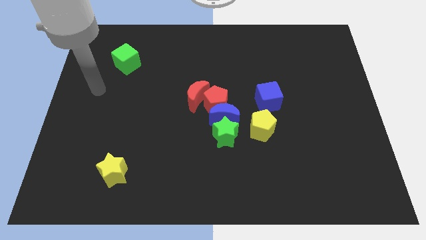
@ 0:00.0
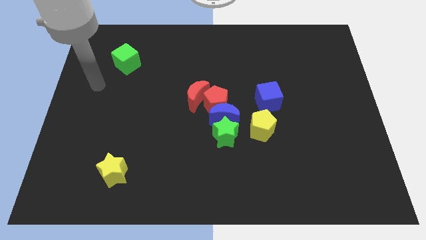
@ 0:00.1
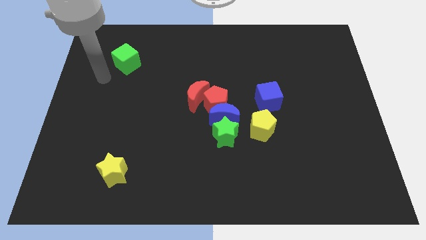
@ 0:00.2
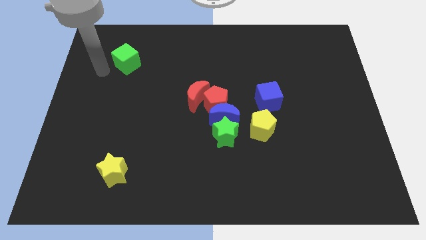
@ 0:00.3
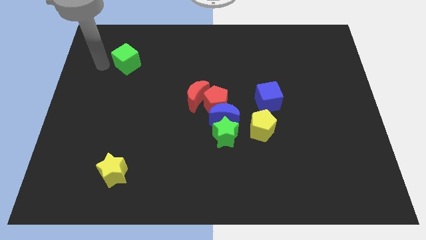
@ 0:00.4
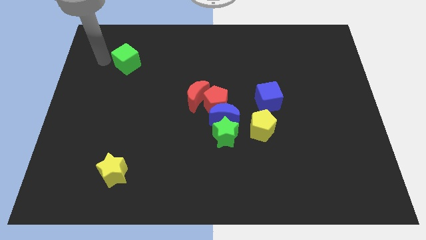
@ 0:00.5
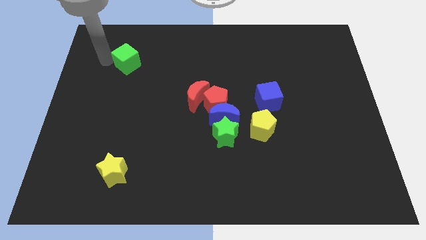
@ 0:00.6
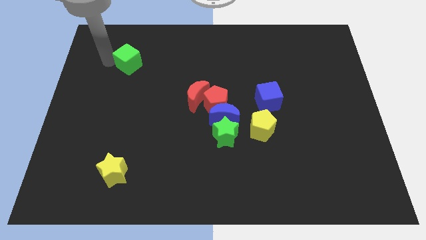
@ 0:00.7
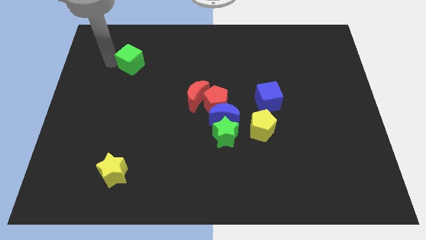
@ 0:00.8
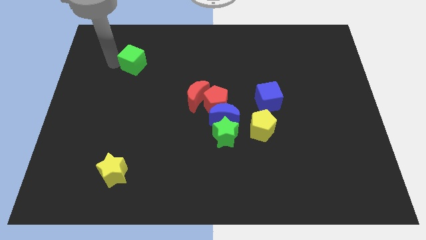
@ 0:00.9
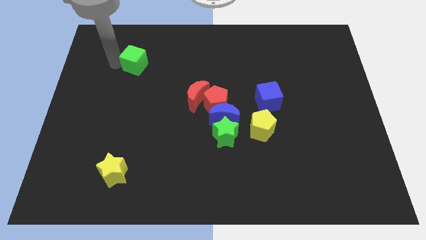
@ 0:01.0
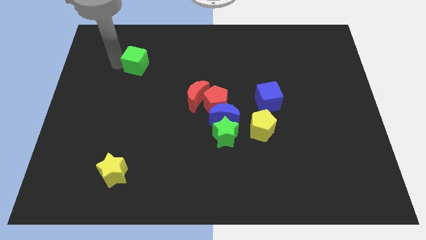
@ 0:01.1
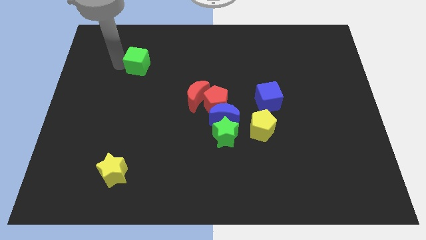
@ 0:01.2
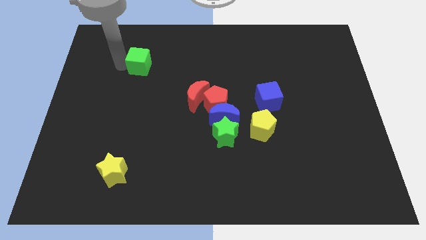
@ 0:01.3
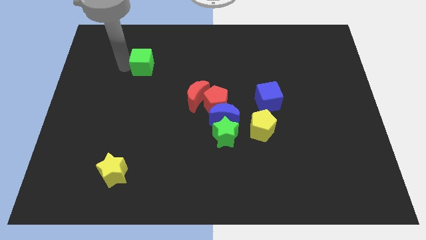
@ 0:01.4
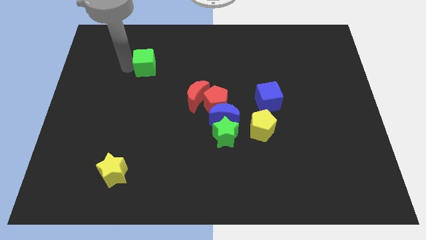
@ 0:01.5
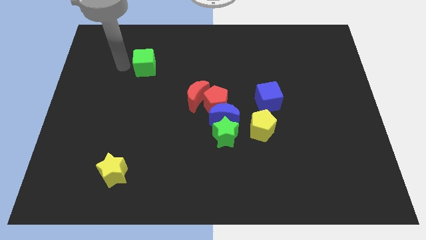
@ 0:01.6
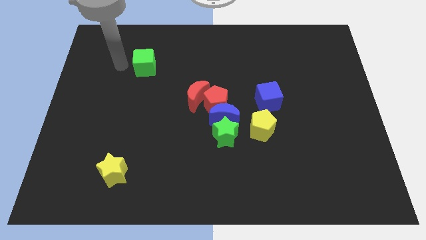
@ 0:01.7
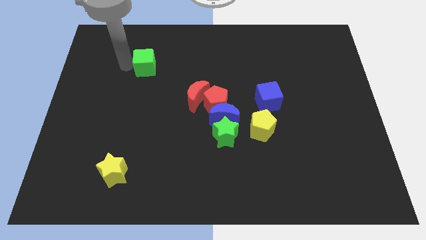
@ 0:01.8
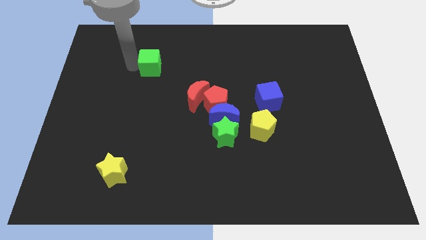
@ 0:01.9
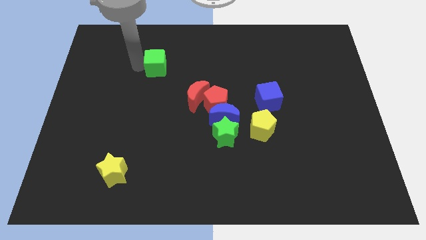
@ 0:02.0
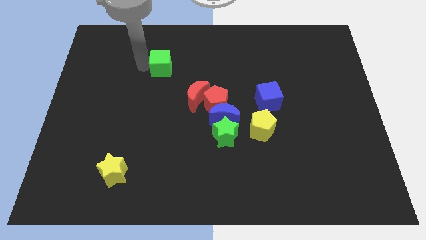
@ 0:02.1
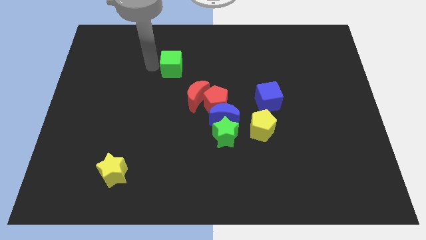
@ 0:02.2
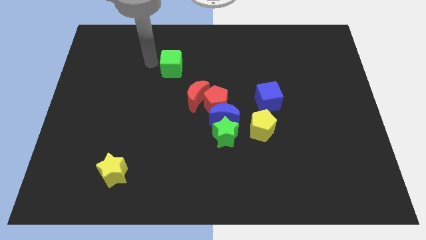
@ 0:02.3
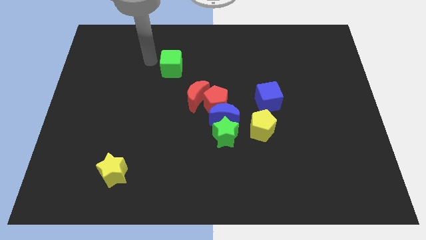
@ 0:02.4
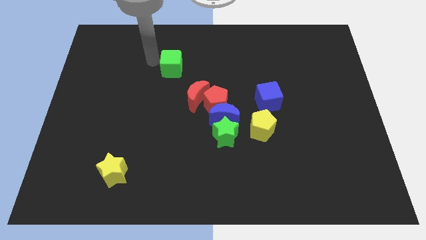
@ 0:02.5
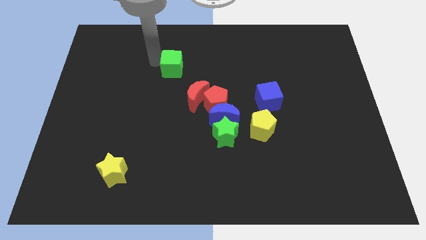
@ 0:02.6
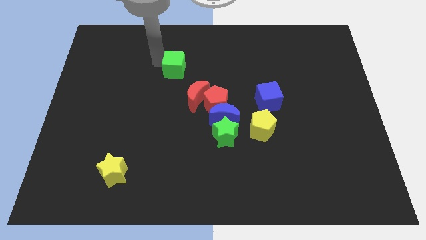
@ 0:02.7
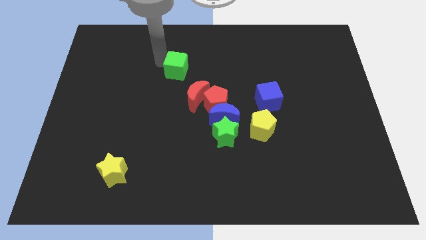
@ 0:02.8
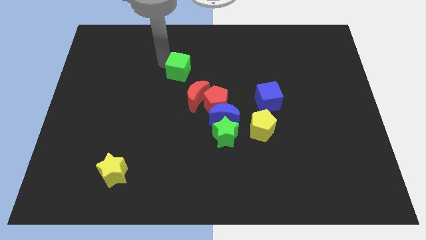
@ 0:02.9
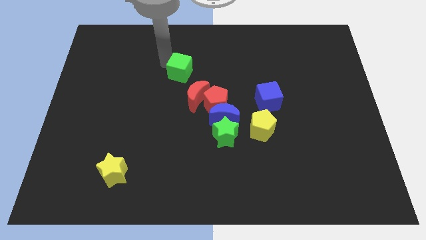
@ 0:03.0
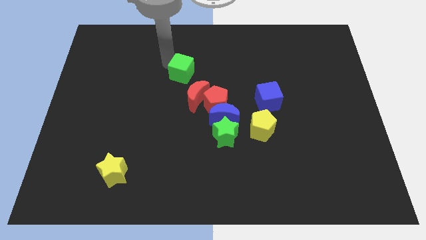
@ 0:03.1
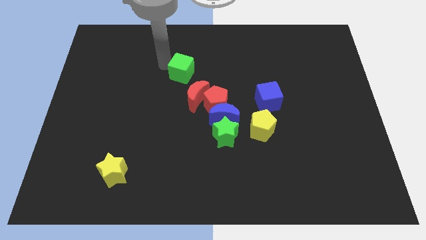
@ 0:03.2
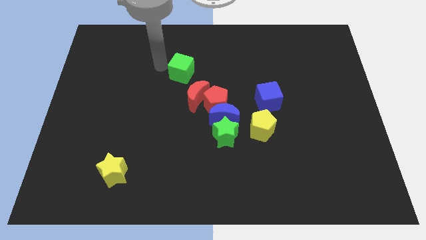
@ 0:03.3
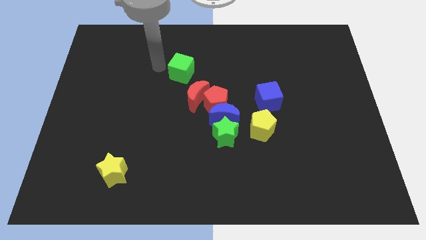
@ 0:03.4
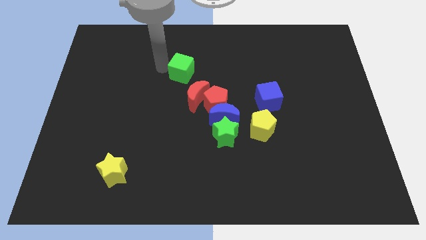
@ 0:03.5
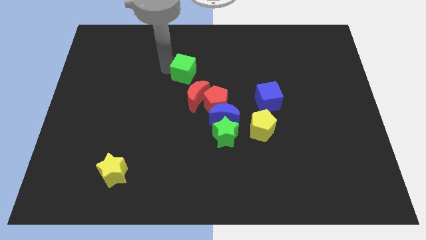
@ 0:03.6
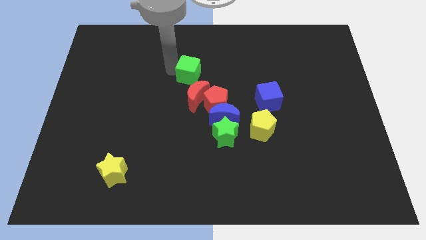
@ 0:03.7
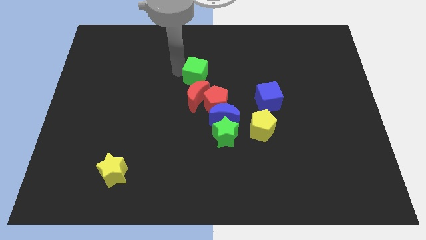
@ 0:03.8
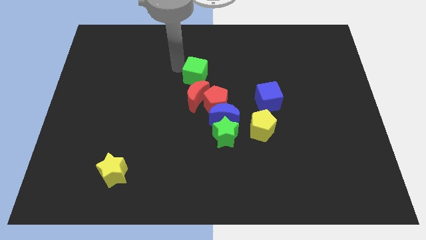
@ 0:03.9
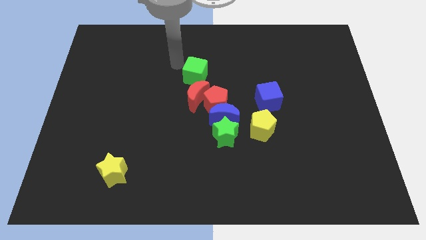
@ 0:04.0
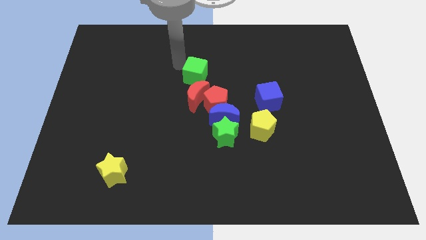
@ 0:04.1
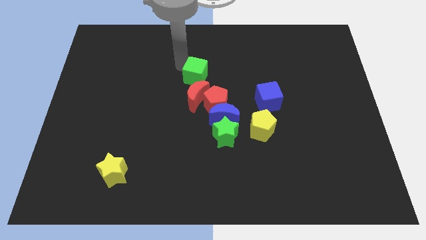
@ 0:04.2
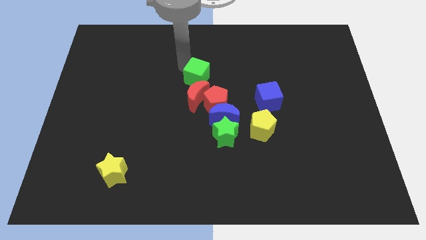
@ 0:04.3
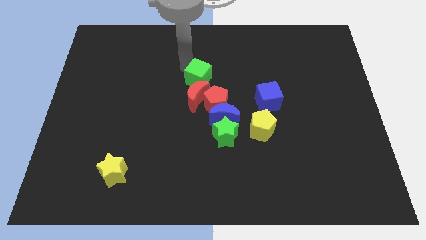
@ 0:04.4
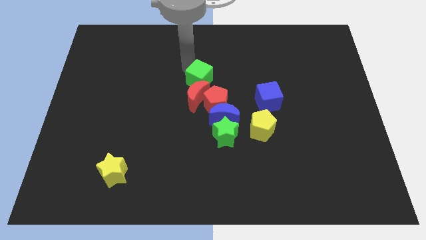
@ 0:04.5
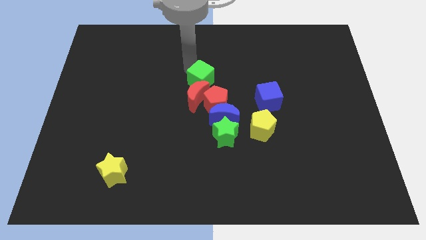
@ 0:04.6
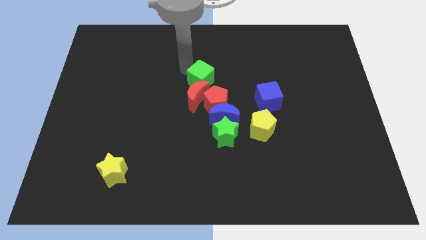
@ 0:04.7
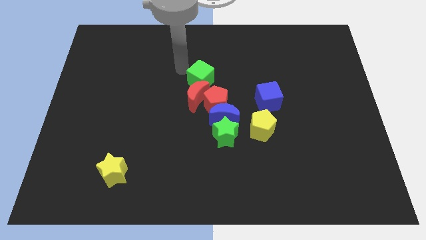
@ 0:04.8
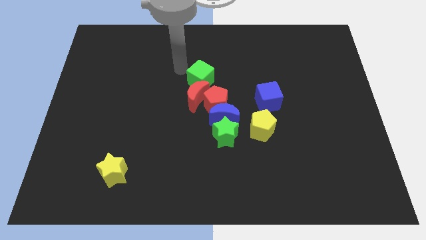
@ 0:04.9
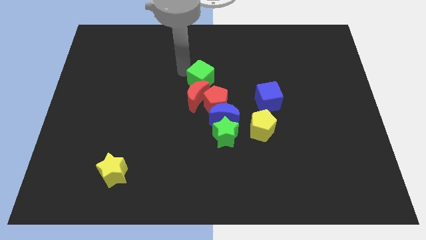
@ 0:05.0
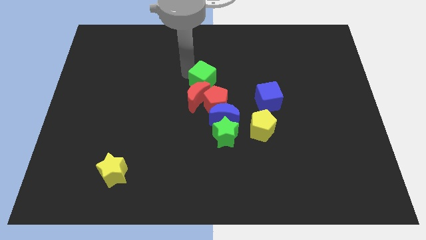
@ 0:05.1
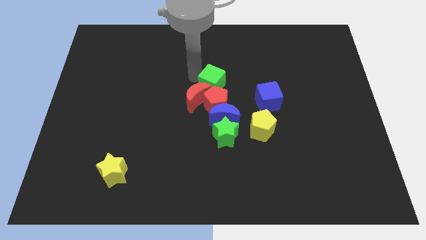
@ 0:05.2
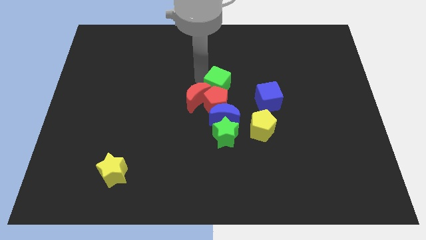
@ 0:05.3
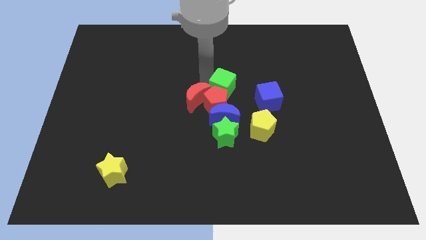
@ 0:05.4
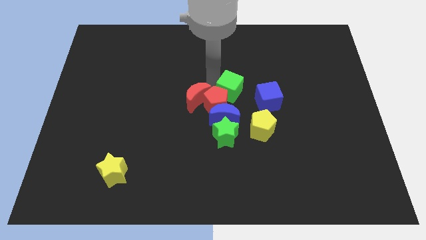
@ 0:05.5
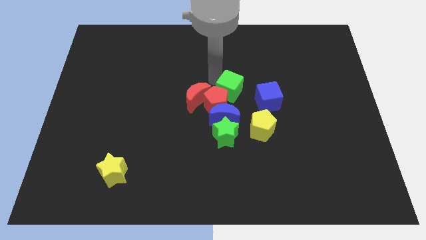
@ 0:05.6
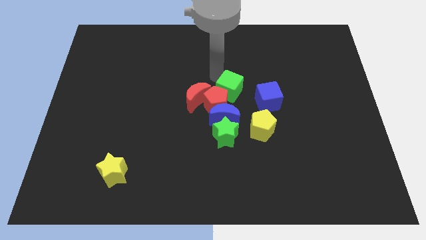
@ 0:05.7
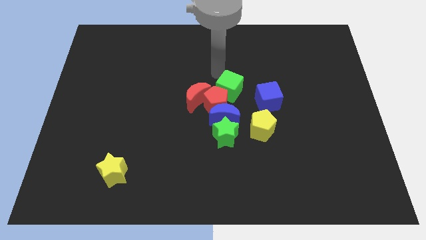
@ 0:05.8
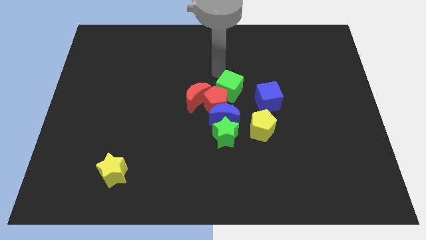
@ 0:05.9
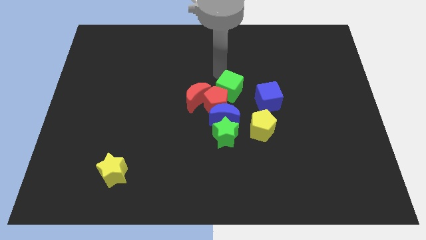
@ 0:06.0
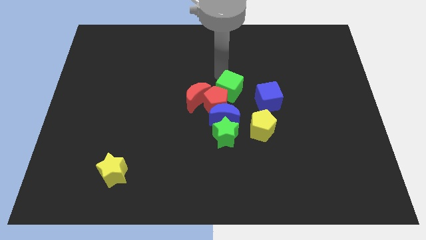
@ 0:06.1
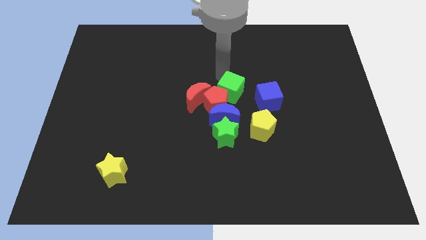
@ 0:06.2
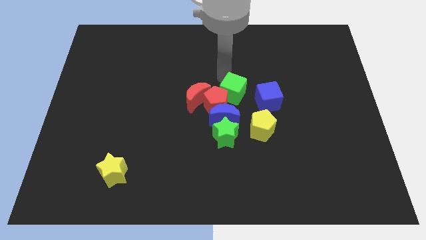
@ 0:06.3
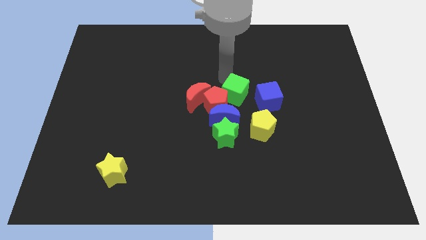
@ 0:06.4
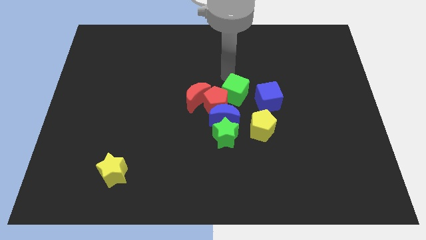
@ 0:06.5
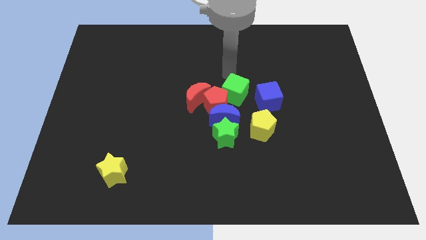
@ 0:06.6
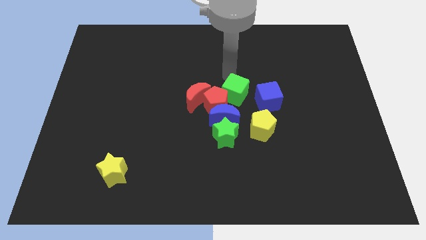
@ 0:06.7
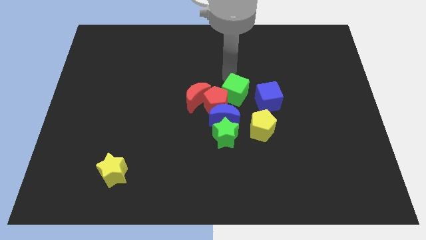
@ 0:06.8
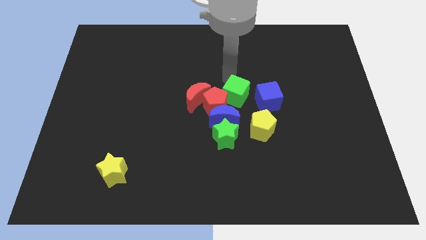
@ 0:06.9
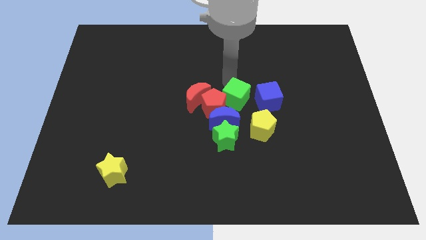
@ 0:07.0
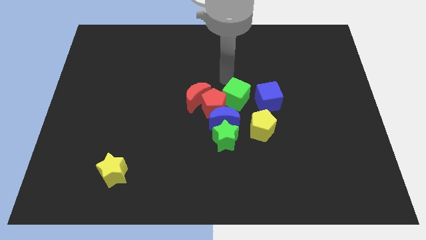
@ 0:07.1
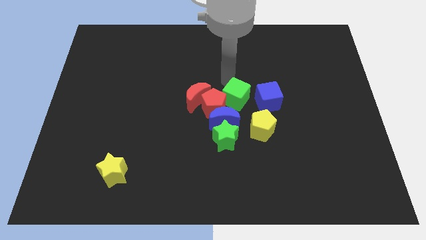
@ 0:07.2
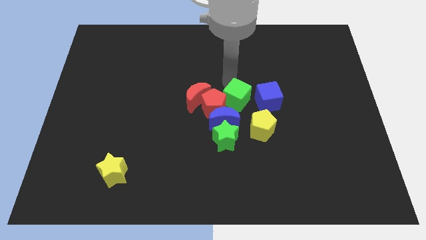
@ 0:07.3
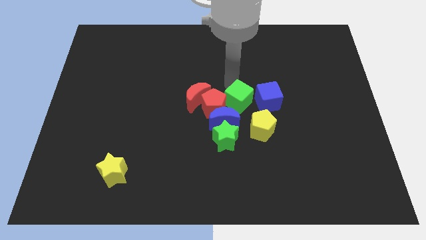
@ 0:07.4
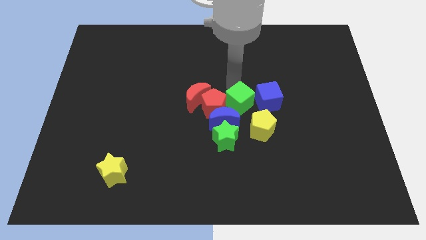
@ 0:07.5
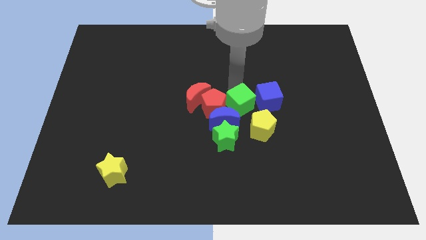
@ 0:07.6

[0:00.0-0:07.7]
move the green cube to the top right of the green star
